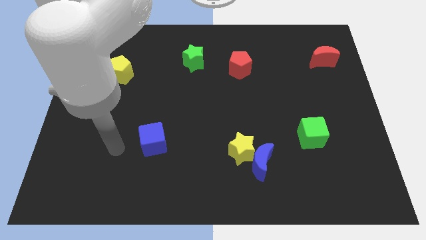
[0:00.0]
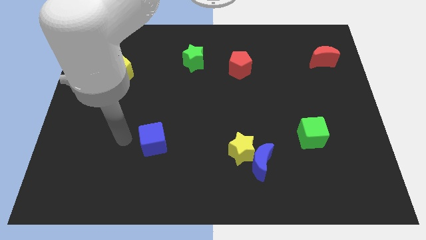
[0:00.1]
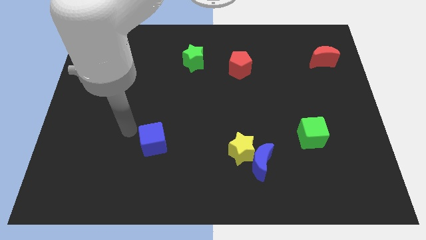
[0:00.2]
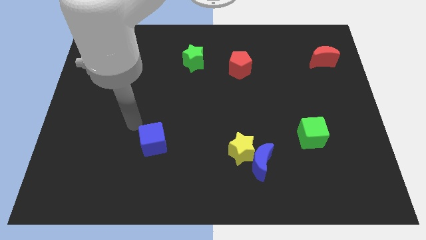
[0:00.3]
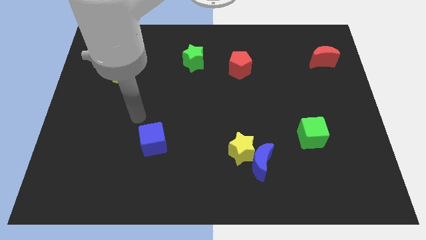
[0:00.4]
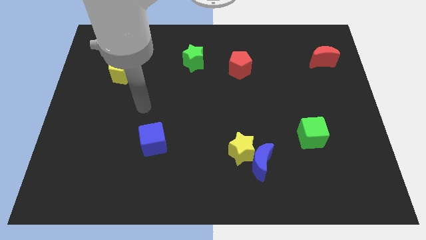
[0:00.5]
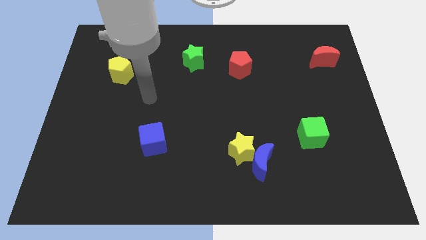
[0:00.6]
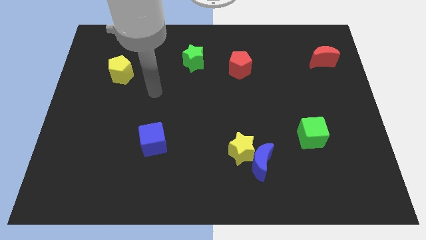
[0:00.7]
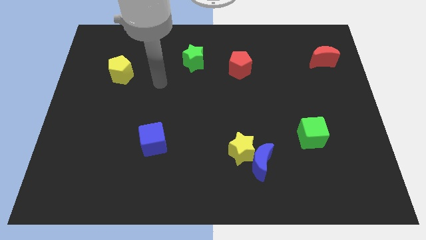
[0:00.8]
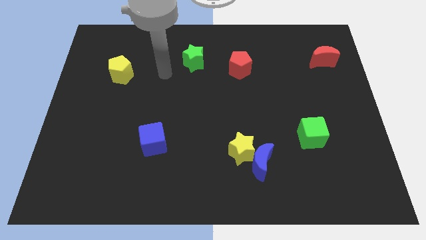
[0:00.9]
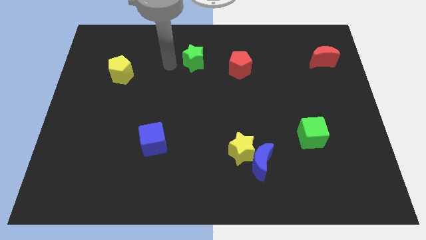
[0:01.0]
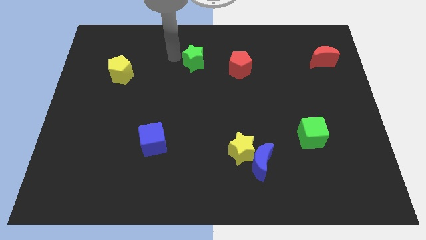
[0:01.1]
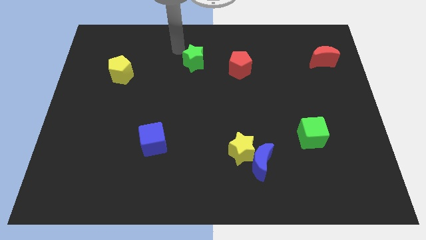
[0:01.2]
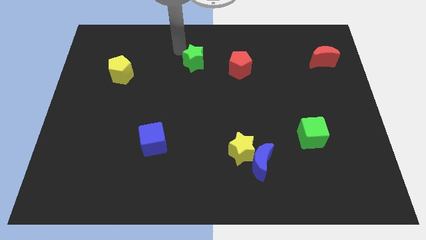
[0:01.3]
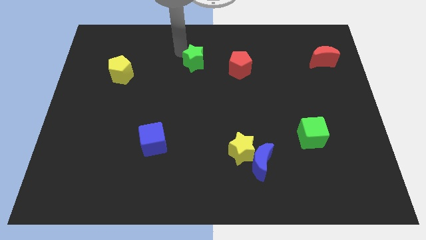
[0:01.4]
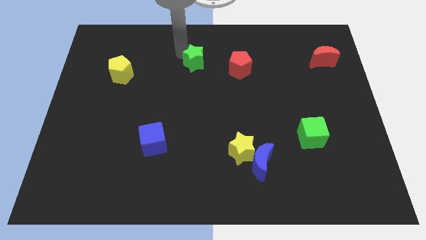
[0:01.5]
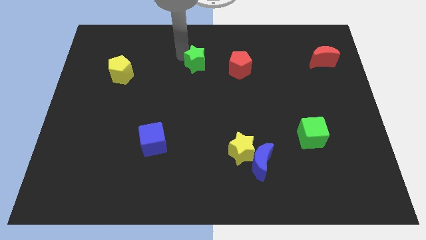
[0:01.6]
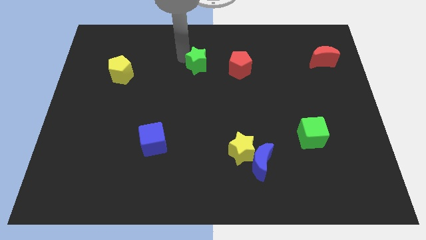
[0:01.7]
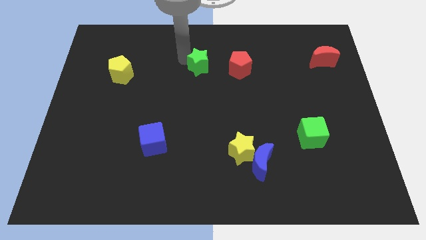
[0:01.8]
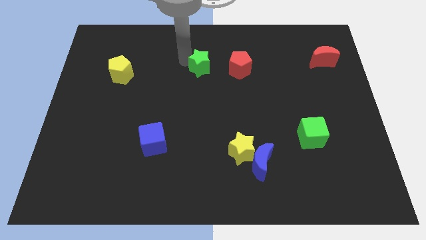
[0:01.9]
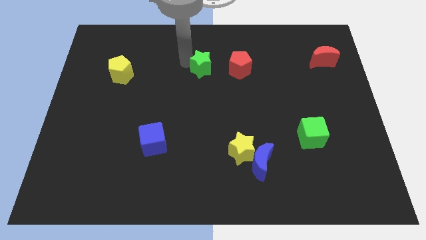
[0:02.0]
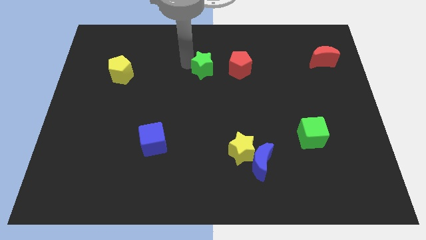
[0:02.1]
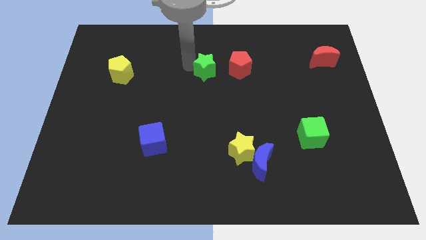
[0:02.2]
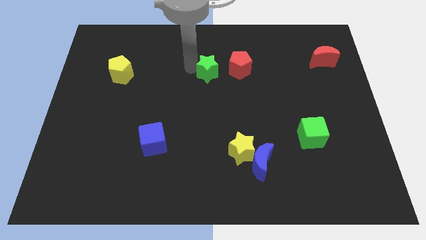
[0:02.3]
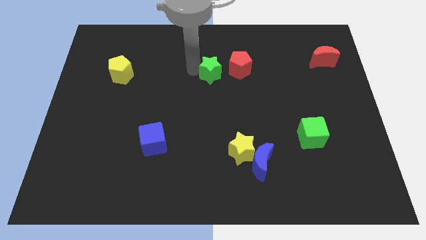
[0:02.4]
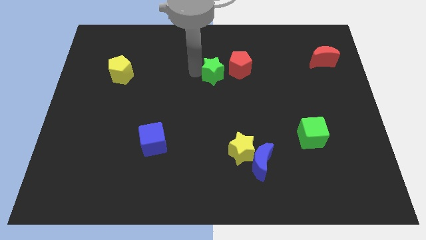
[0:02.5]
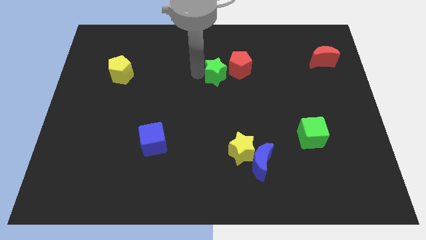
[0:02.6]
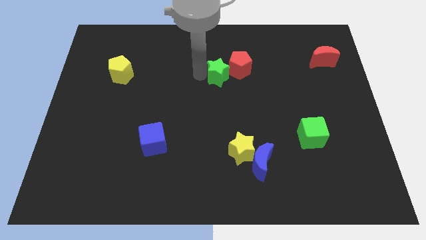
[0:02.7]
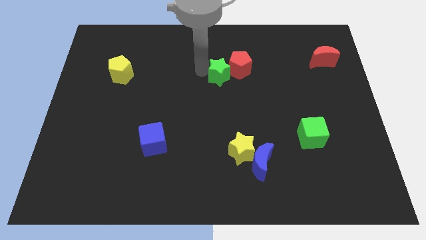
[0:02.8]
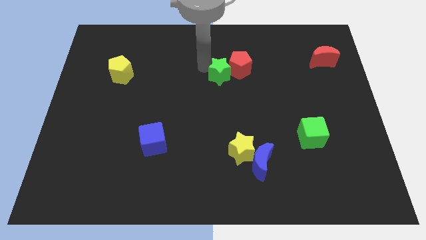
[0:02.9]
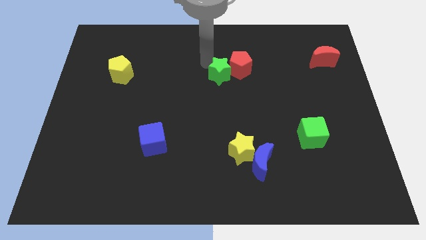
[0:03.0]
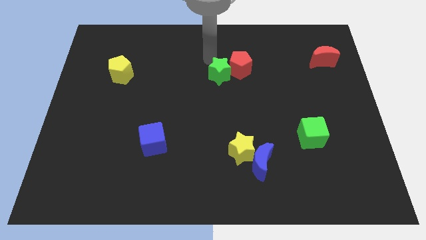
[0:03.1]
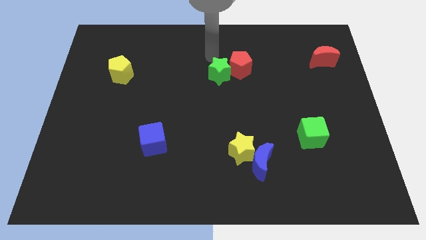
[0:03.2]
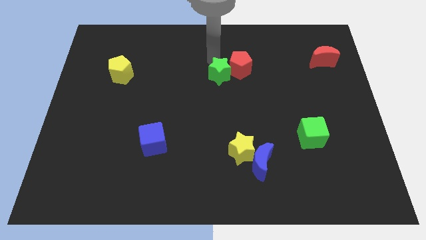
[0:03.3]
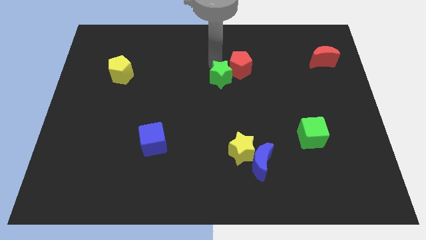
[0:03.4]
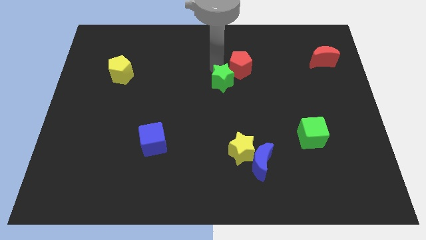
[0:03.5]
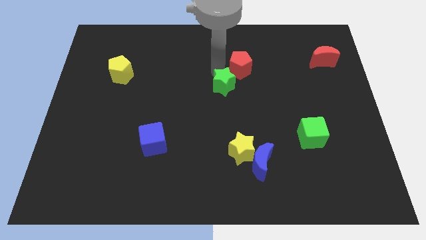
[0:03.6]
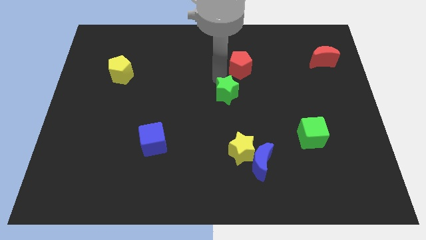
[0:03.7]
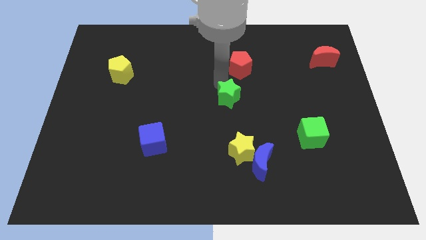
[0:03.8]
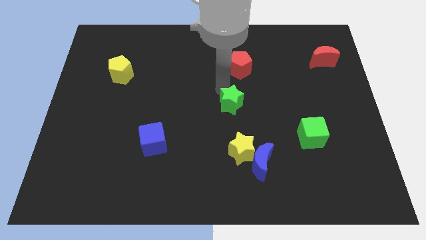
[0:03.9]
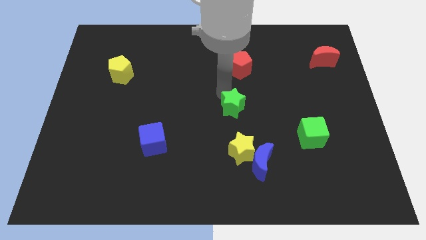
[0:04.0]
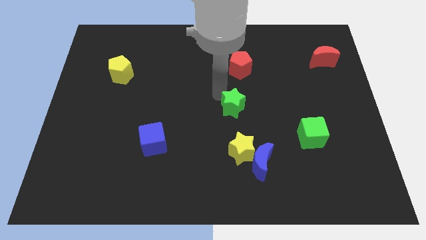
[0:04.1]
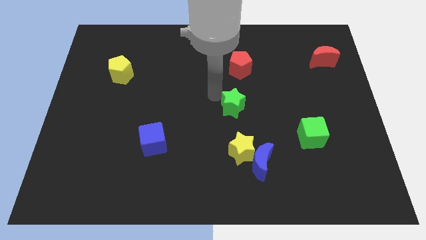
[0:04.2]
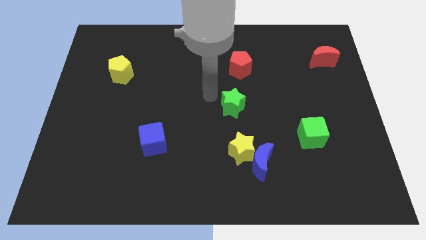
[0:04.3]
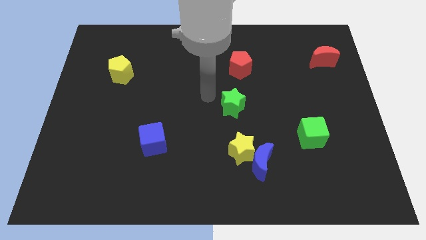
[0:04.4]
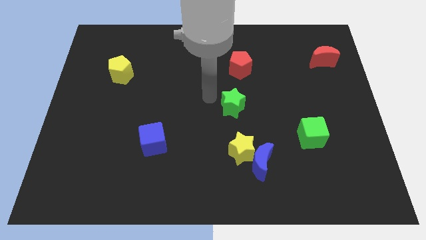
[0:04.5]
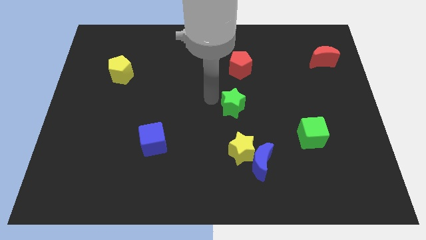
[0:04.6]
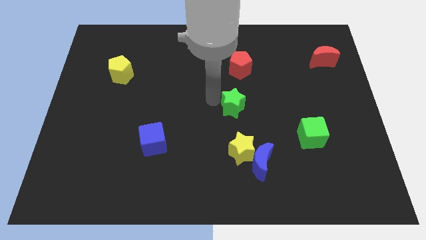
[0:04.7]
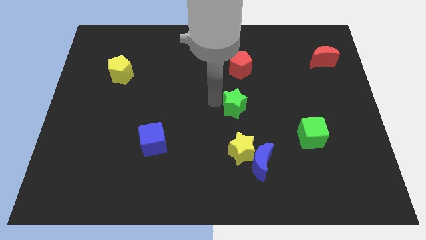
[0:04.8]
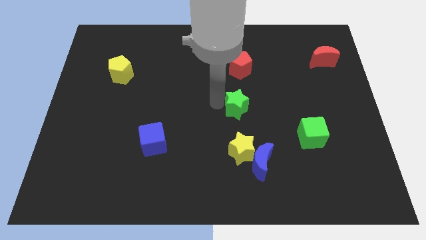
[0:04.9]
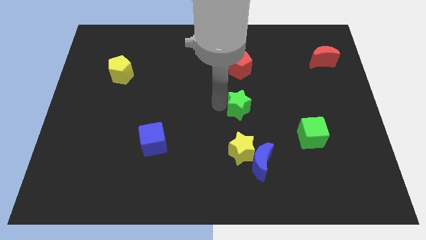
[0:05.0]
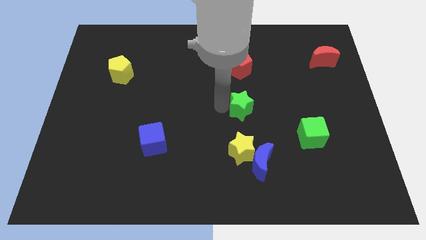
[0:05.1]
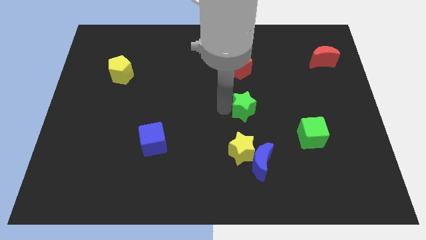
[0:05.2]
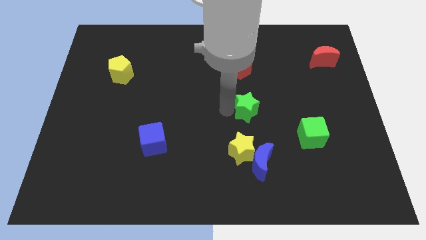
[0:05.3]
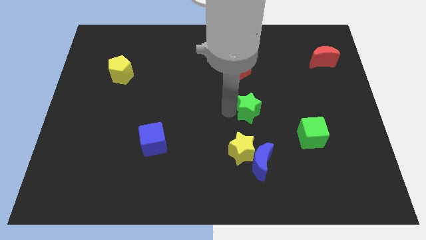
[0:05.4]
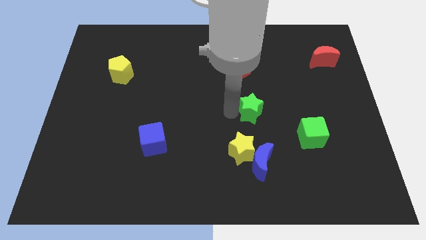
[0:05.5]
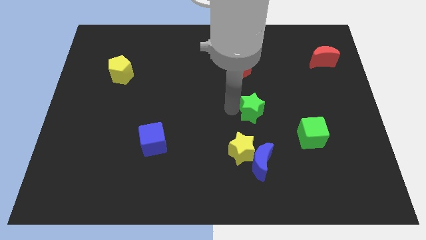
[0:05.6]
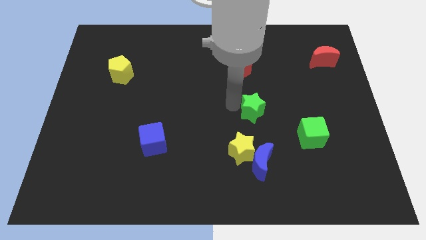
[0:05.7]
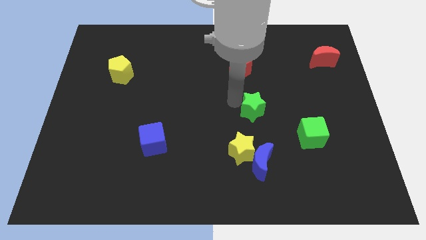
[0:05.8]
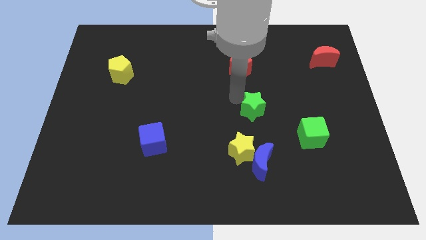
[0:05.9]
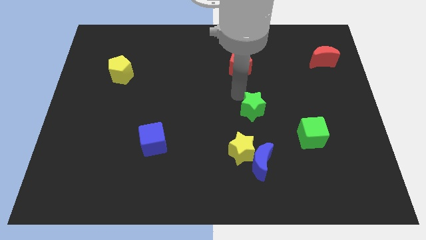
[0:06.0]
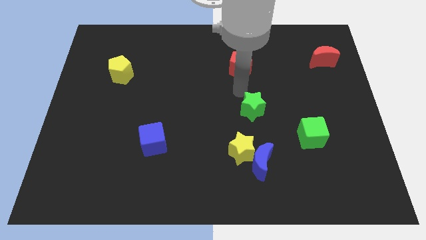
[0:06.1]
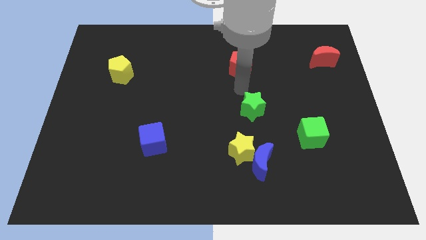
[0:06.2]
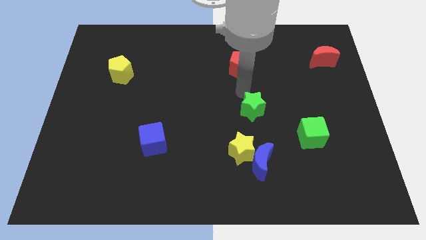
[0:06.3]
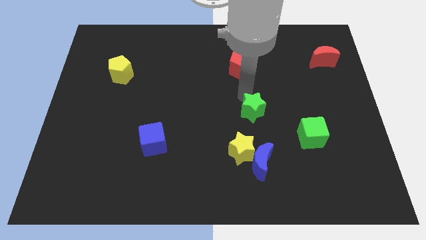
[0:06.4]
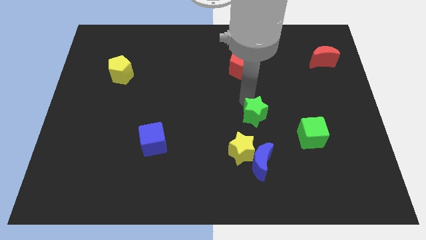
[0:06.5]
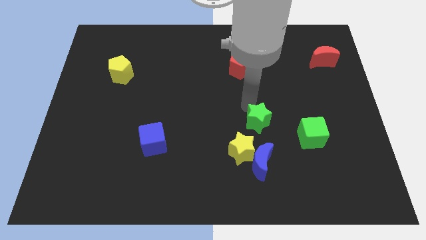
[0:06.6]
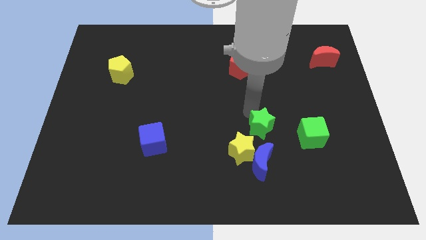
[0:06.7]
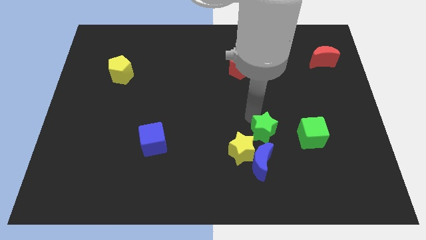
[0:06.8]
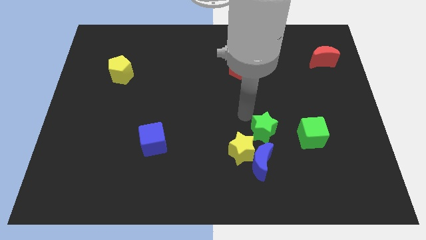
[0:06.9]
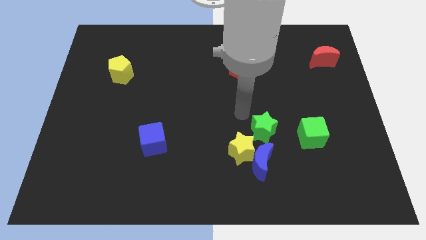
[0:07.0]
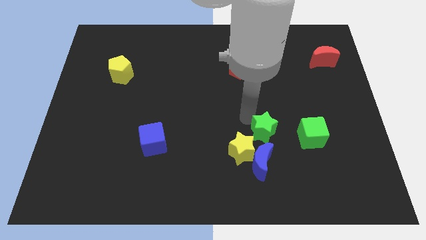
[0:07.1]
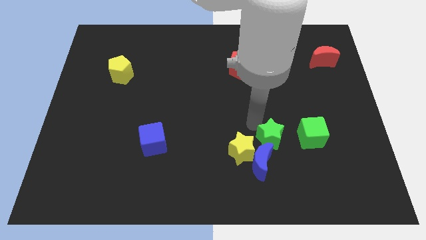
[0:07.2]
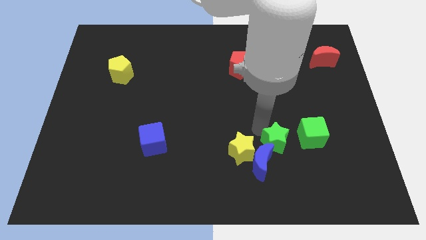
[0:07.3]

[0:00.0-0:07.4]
move the green star to the bottom left side of the green cube

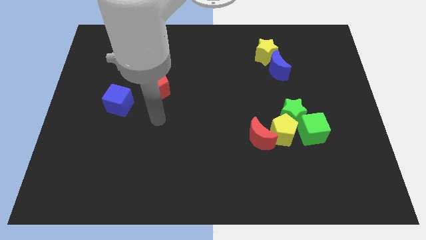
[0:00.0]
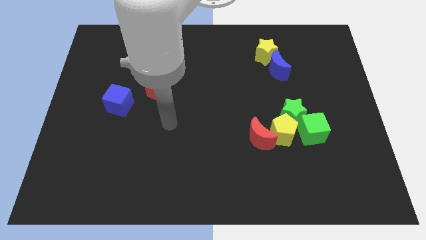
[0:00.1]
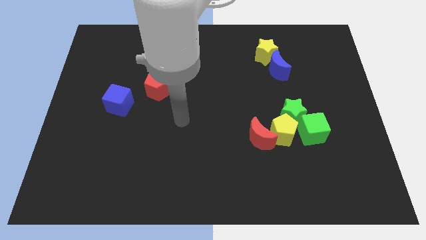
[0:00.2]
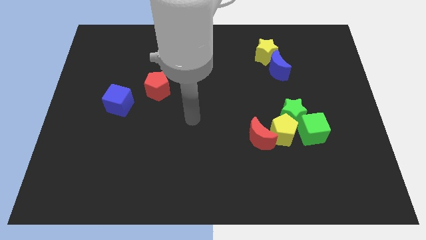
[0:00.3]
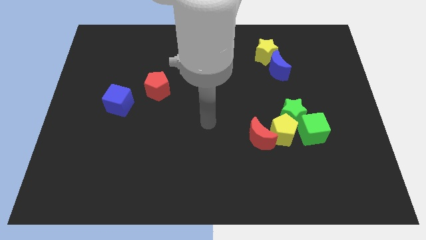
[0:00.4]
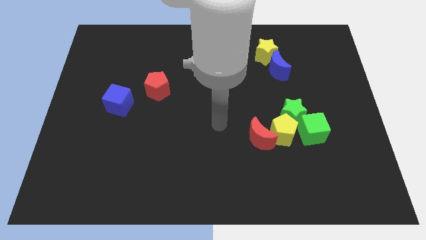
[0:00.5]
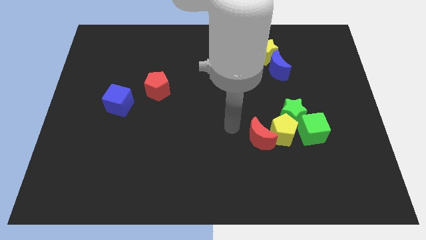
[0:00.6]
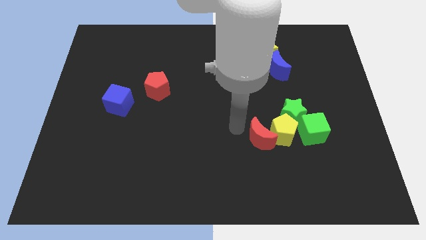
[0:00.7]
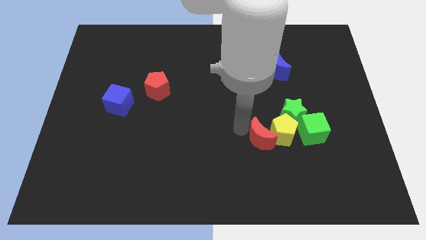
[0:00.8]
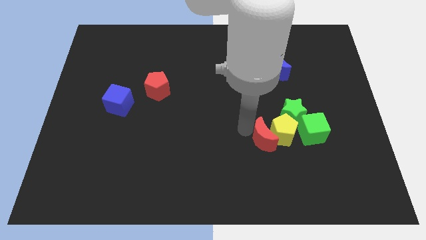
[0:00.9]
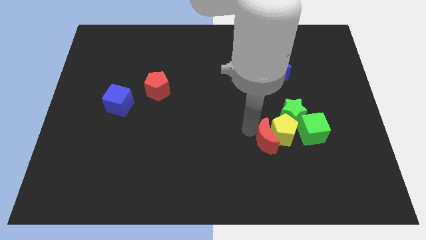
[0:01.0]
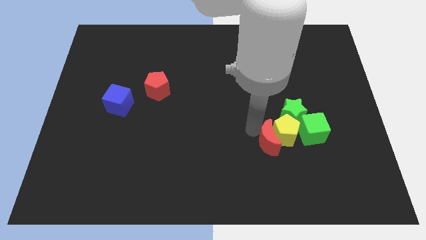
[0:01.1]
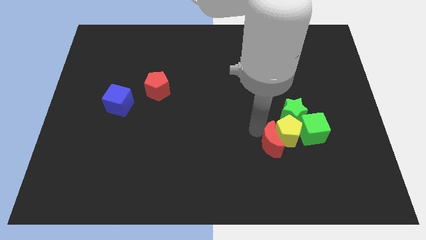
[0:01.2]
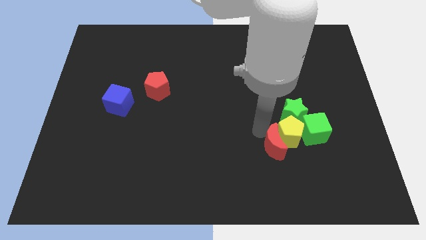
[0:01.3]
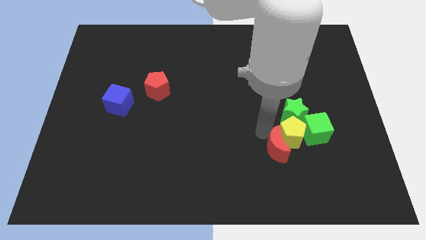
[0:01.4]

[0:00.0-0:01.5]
put the red moon to the bottom of the green star
